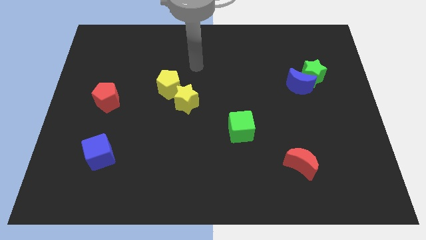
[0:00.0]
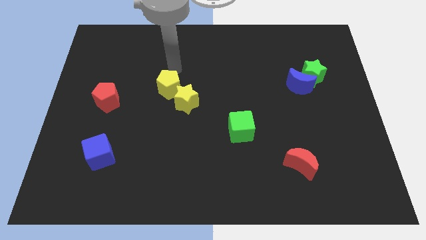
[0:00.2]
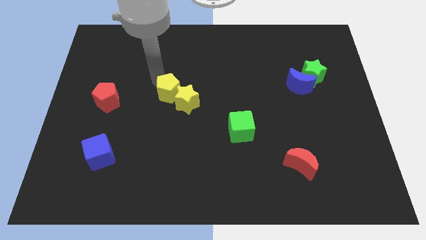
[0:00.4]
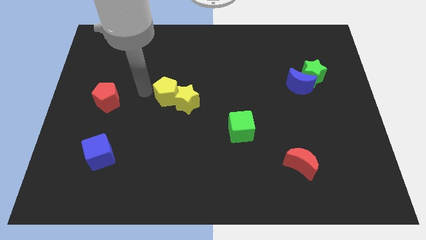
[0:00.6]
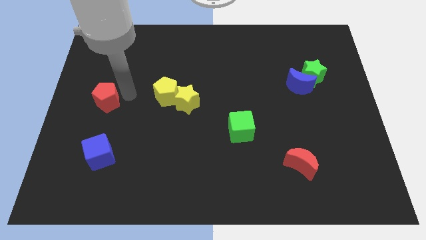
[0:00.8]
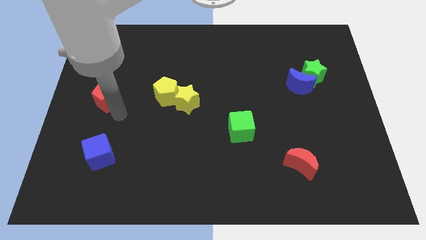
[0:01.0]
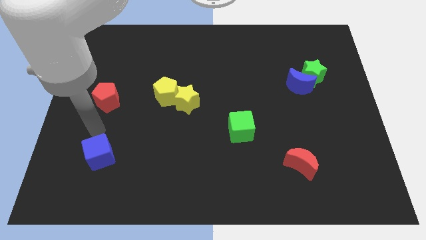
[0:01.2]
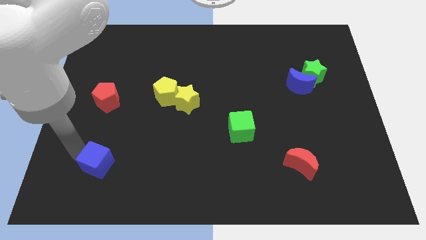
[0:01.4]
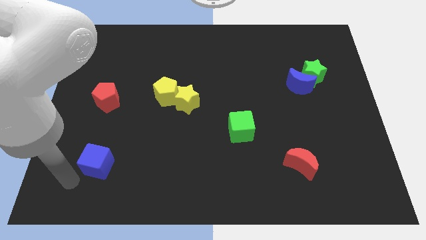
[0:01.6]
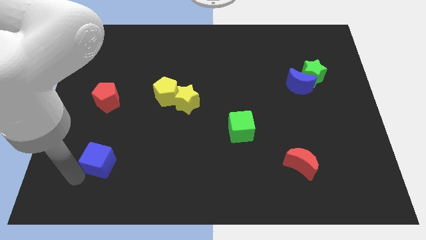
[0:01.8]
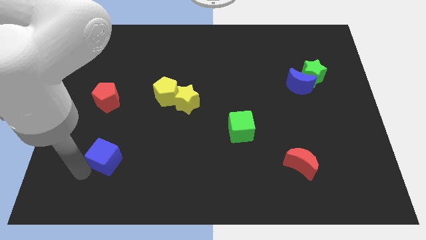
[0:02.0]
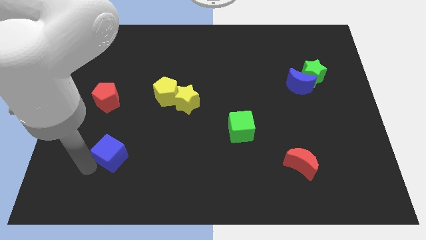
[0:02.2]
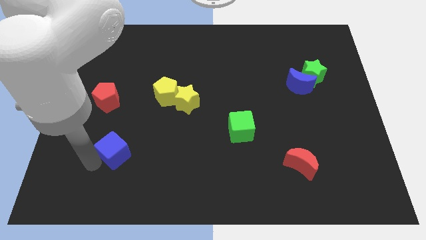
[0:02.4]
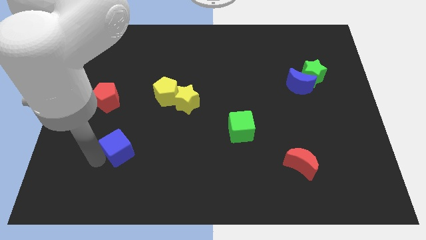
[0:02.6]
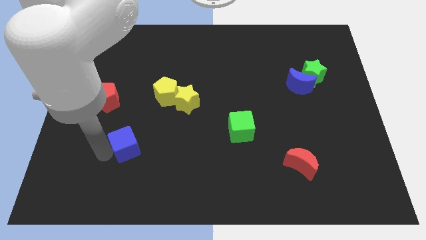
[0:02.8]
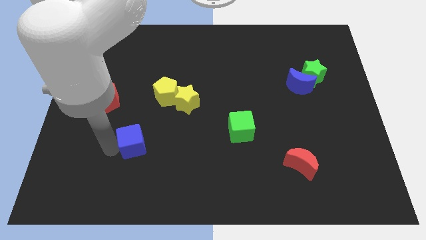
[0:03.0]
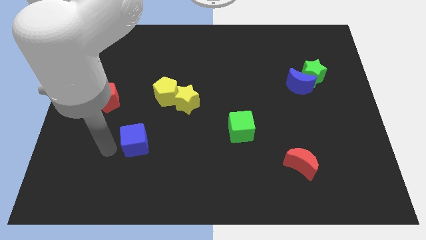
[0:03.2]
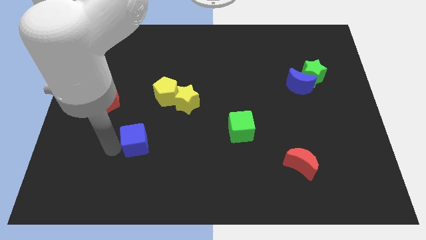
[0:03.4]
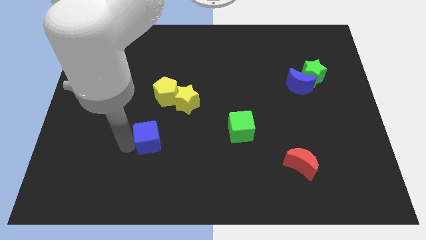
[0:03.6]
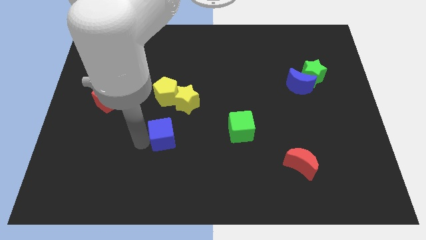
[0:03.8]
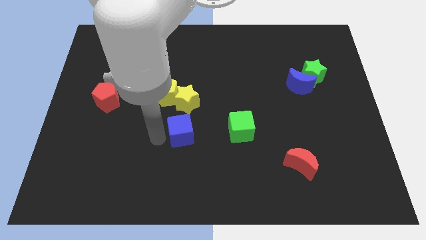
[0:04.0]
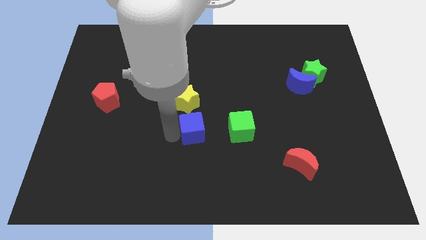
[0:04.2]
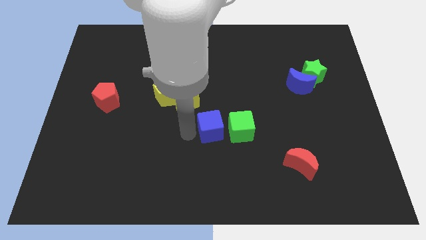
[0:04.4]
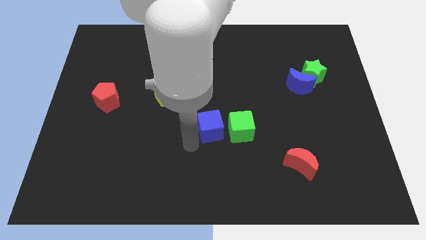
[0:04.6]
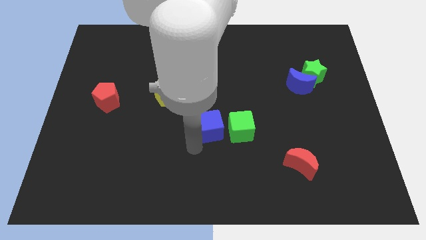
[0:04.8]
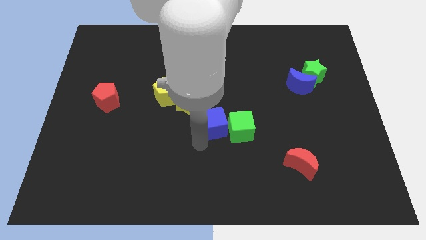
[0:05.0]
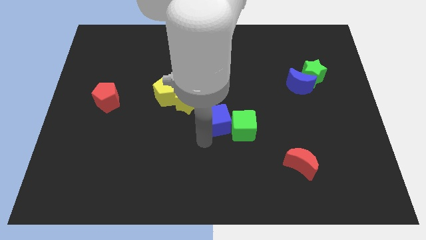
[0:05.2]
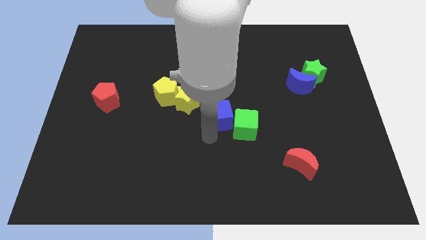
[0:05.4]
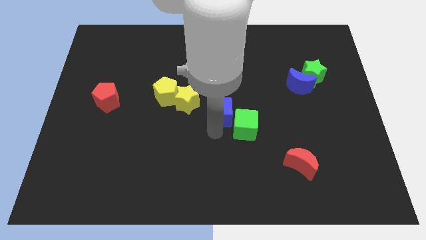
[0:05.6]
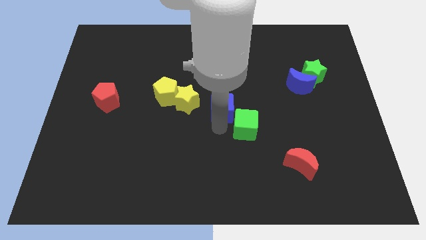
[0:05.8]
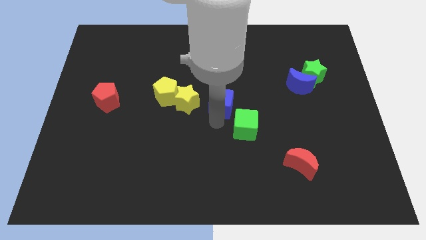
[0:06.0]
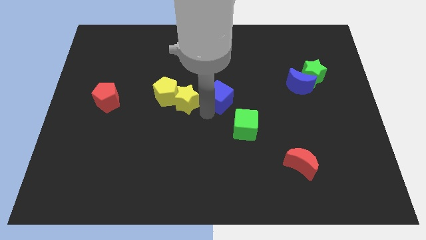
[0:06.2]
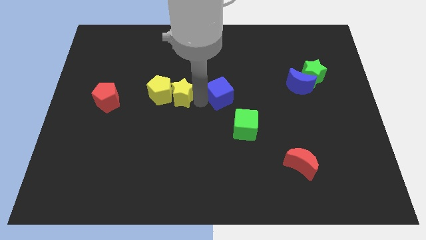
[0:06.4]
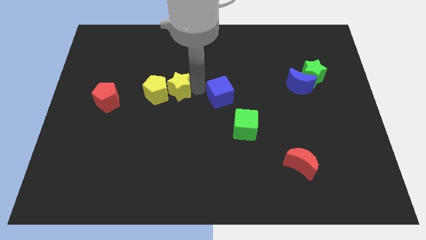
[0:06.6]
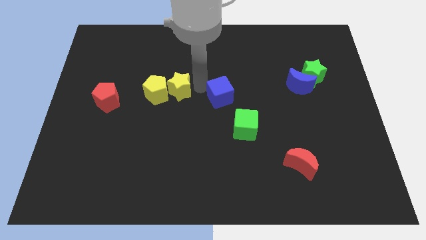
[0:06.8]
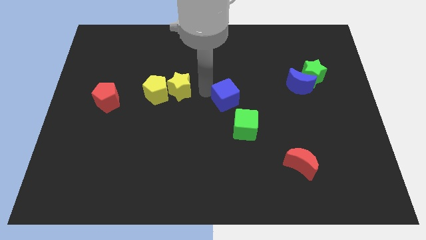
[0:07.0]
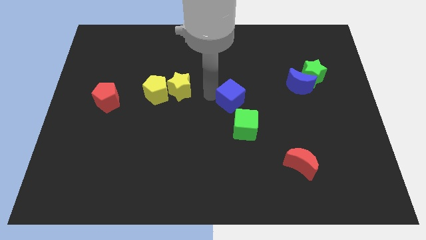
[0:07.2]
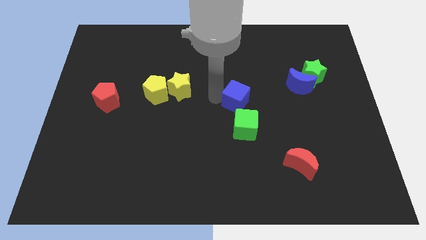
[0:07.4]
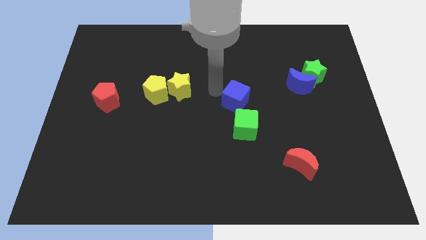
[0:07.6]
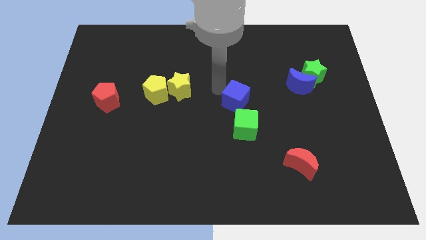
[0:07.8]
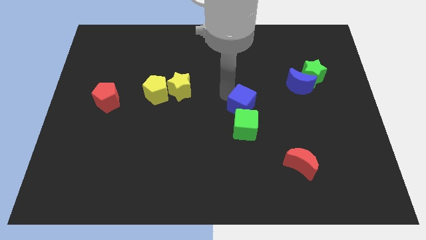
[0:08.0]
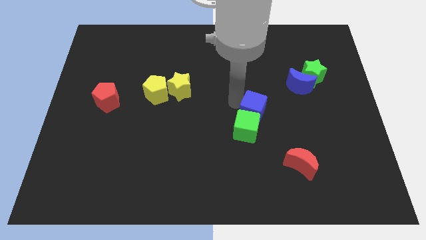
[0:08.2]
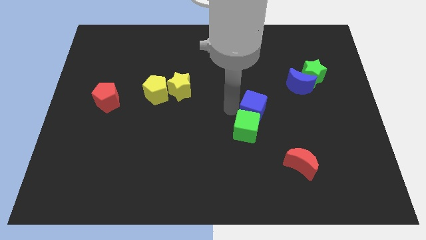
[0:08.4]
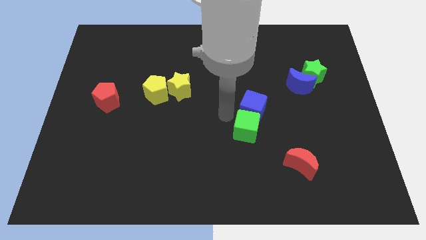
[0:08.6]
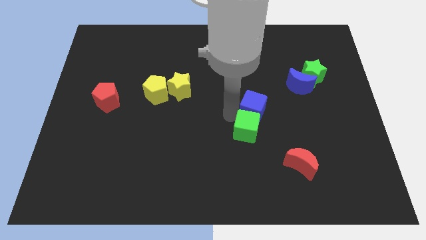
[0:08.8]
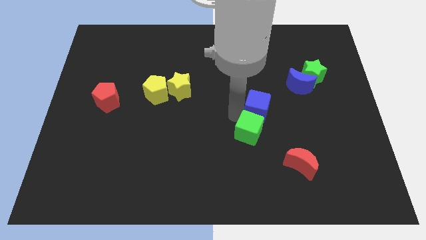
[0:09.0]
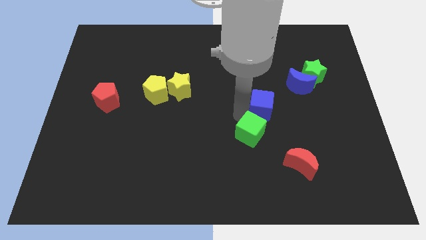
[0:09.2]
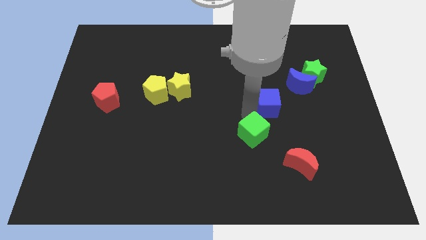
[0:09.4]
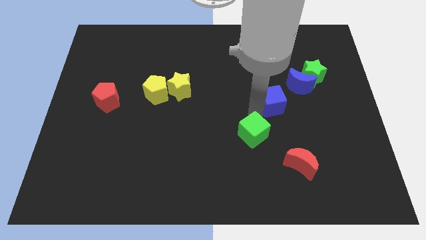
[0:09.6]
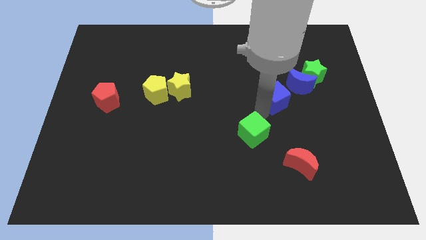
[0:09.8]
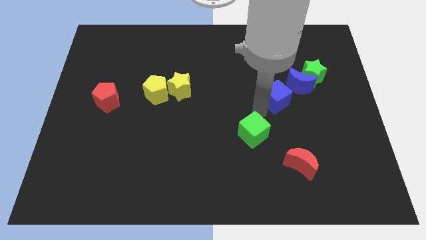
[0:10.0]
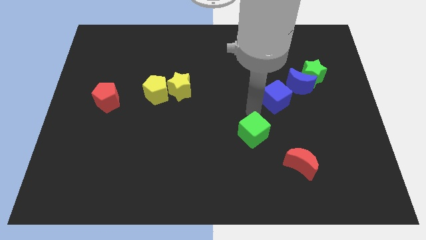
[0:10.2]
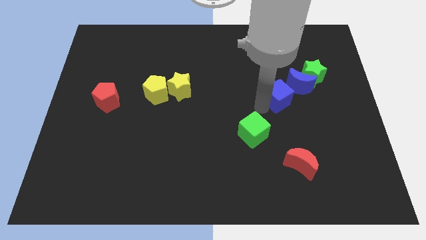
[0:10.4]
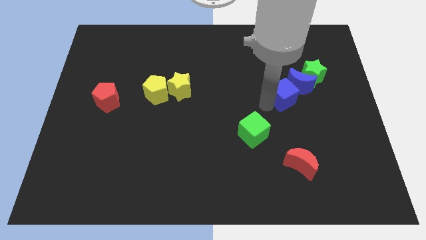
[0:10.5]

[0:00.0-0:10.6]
slide the blue cube to the blue moon

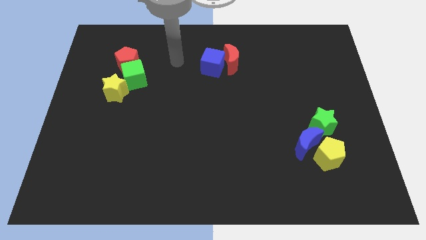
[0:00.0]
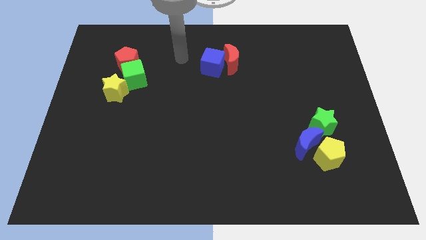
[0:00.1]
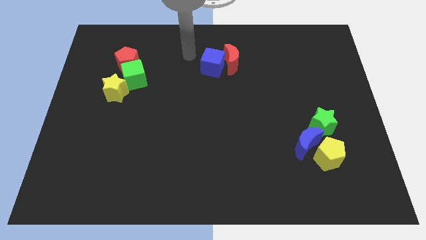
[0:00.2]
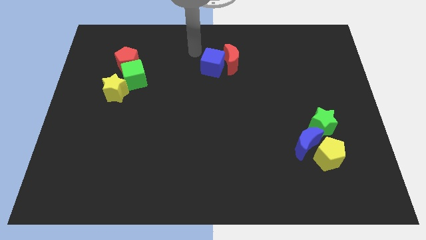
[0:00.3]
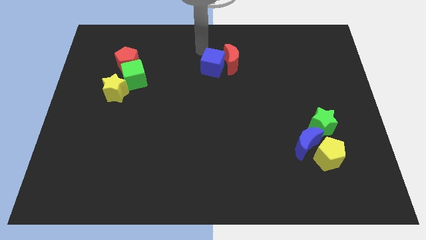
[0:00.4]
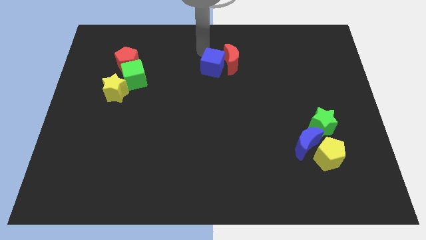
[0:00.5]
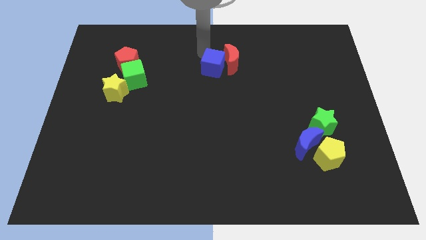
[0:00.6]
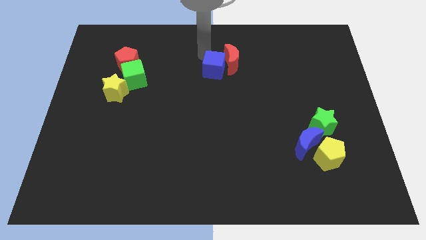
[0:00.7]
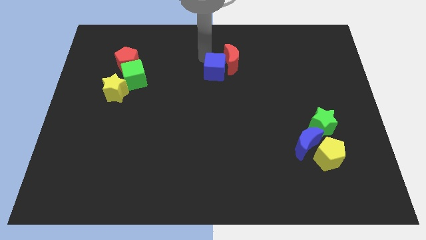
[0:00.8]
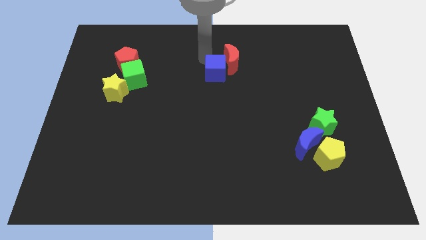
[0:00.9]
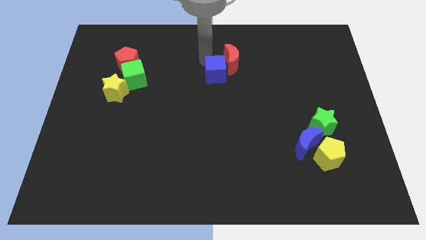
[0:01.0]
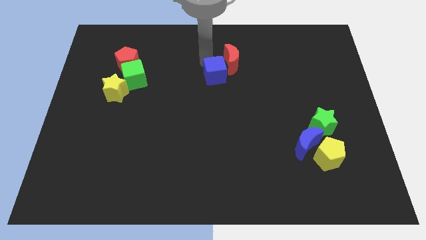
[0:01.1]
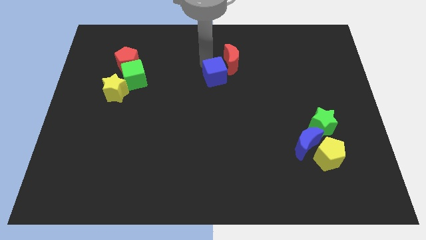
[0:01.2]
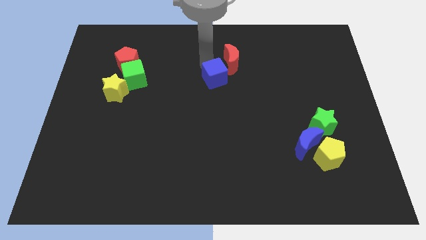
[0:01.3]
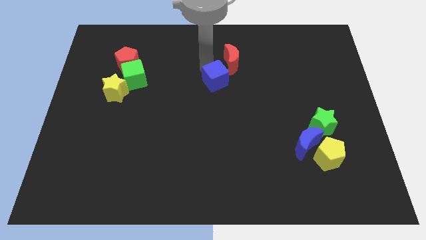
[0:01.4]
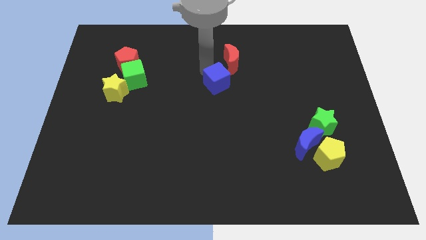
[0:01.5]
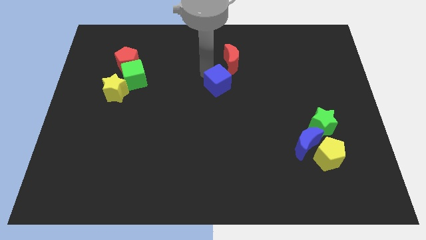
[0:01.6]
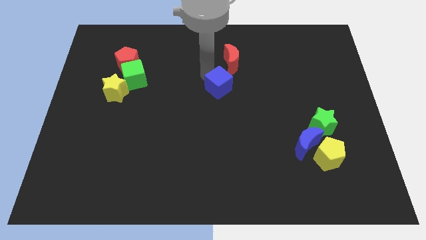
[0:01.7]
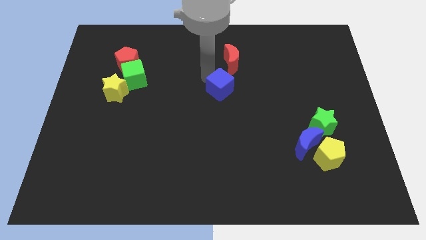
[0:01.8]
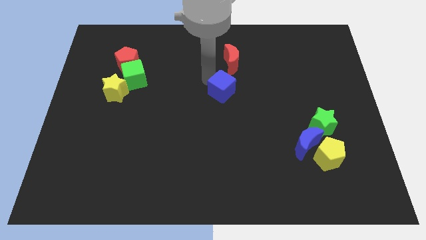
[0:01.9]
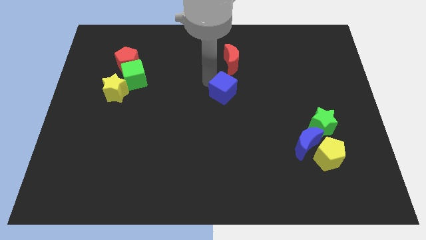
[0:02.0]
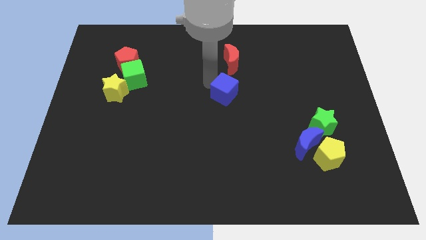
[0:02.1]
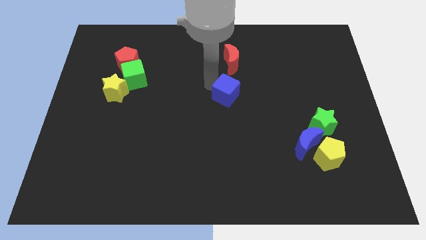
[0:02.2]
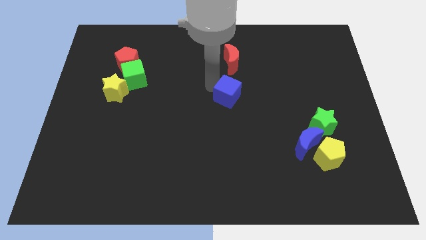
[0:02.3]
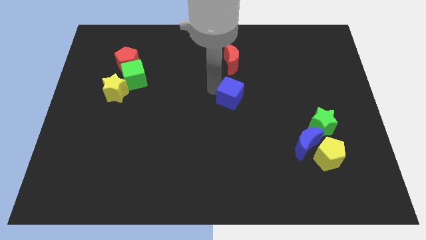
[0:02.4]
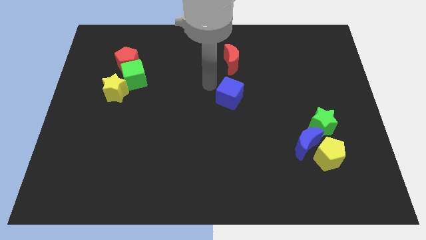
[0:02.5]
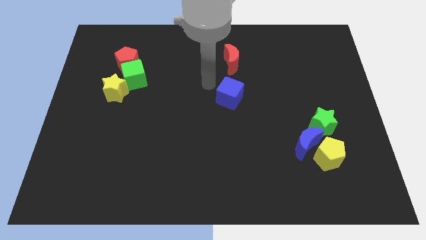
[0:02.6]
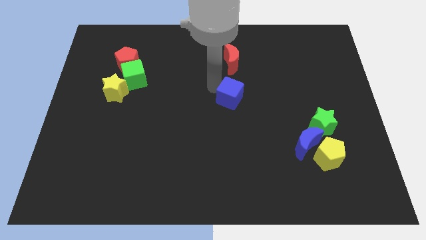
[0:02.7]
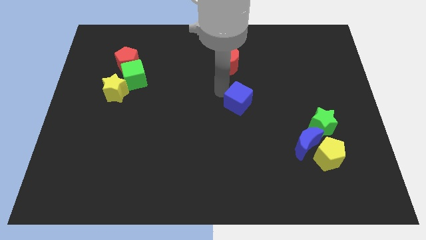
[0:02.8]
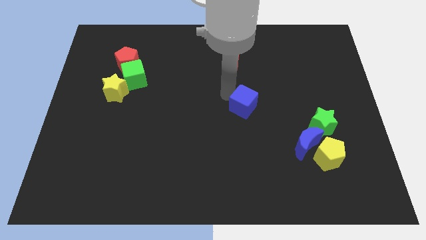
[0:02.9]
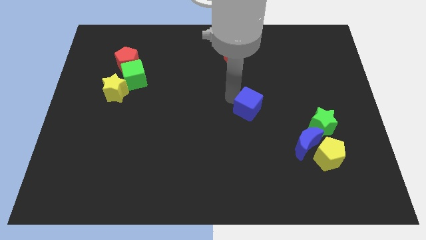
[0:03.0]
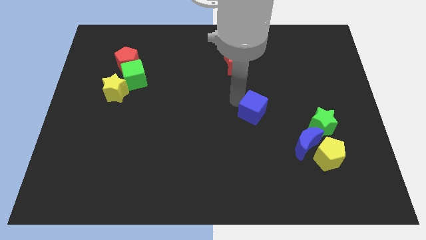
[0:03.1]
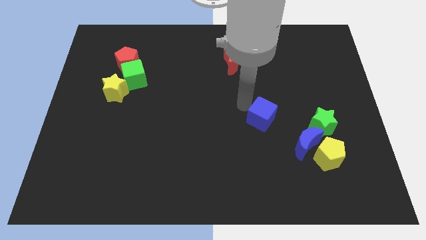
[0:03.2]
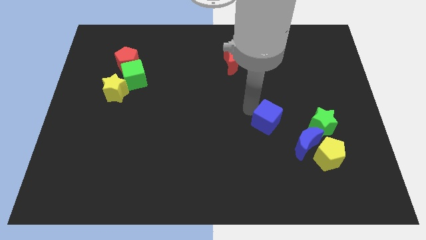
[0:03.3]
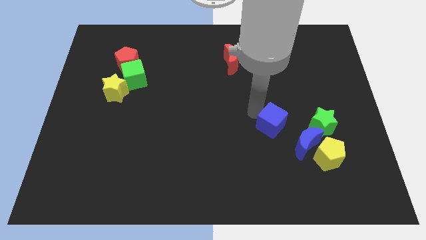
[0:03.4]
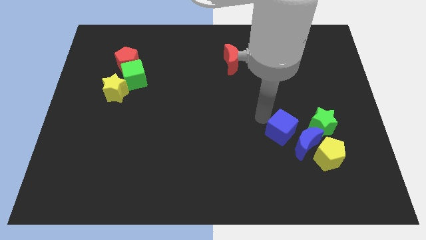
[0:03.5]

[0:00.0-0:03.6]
put the blue cube next to the blue moon
